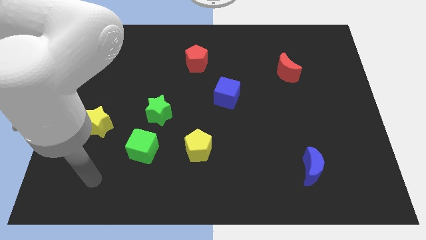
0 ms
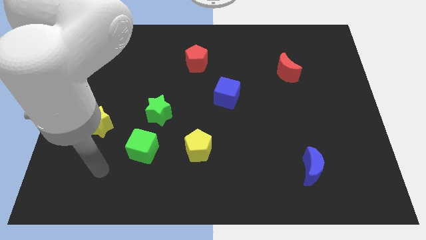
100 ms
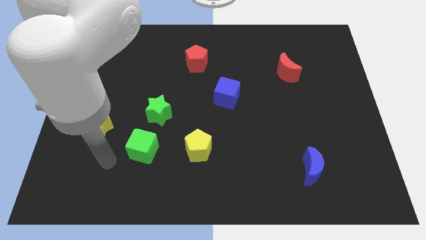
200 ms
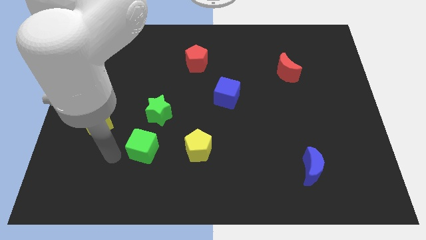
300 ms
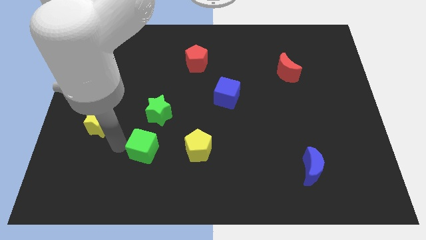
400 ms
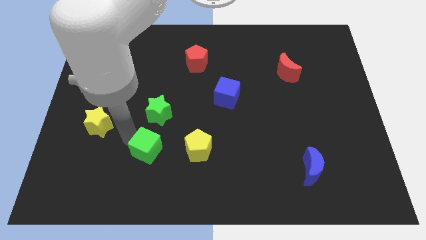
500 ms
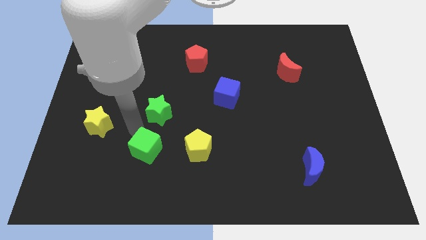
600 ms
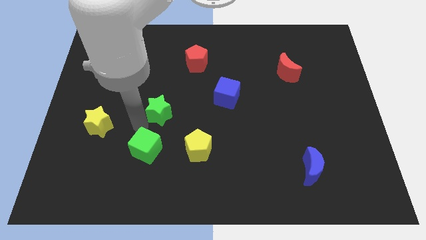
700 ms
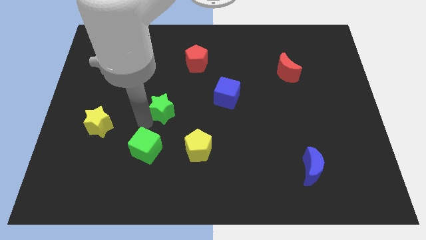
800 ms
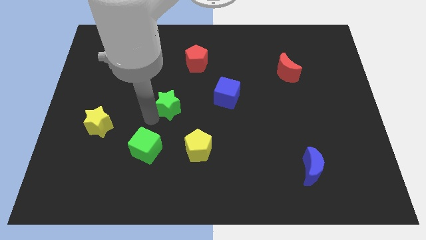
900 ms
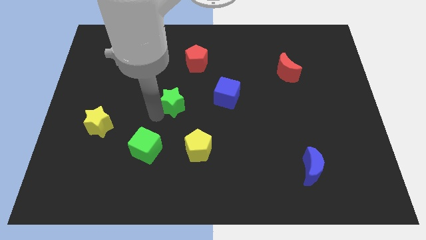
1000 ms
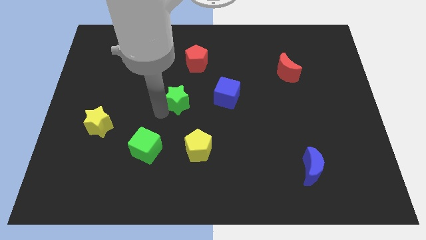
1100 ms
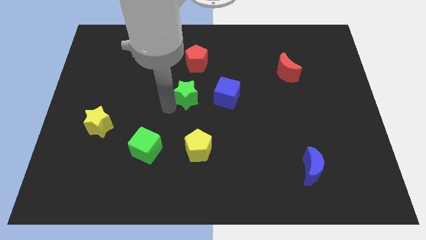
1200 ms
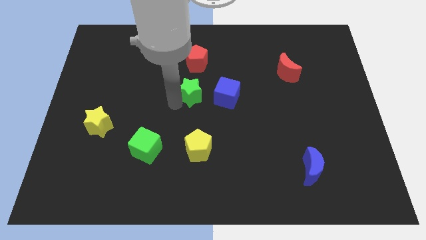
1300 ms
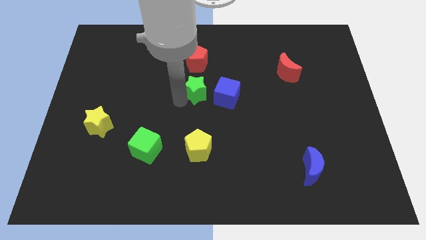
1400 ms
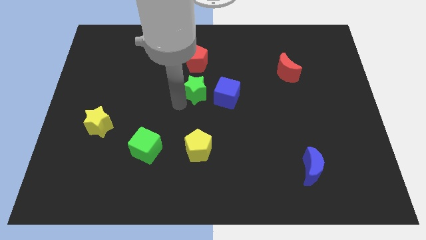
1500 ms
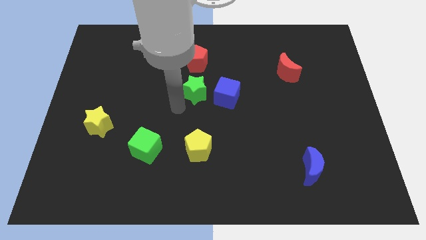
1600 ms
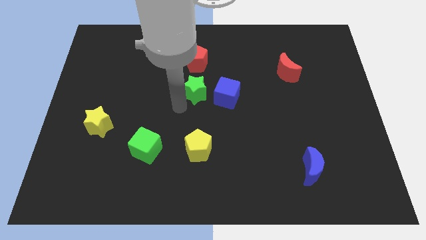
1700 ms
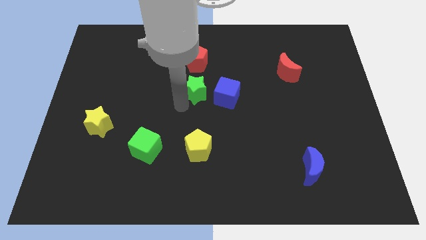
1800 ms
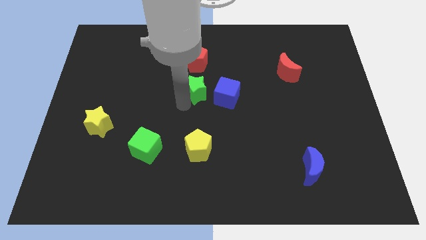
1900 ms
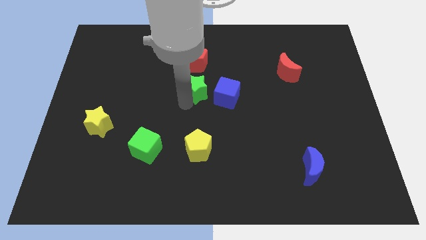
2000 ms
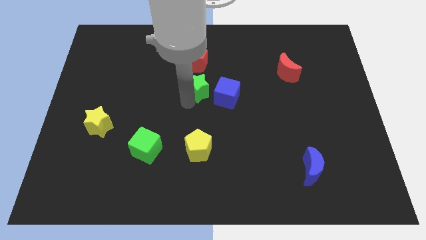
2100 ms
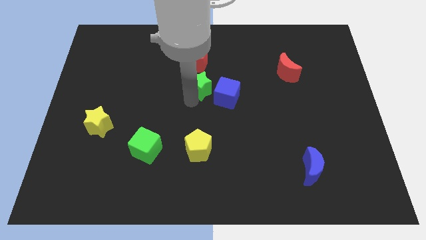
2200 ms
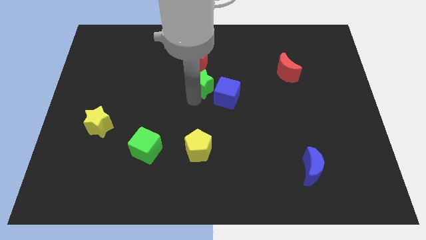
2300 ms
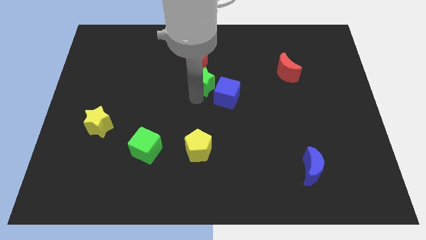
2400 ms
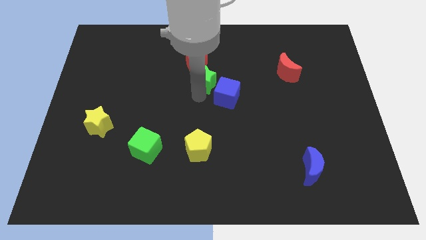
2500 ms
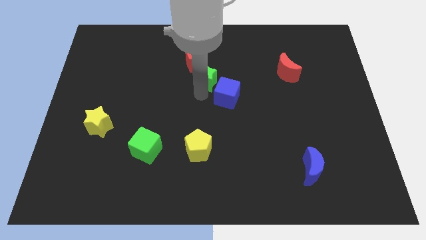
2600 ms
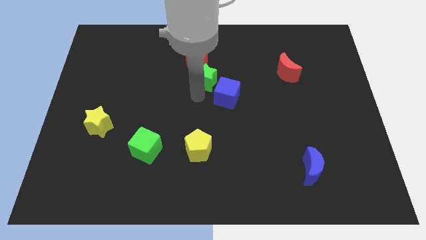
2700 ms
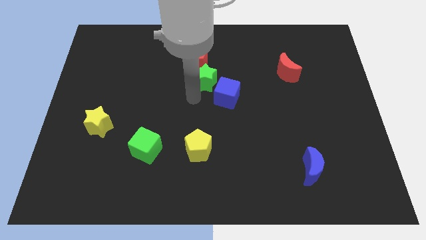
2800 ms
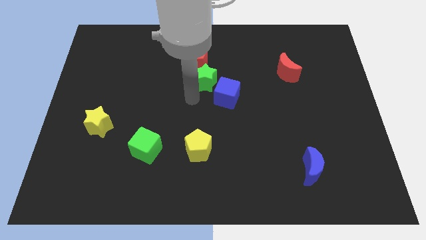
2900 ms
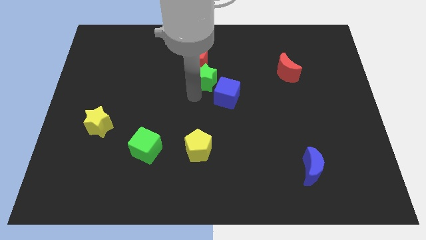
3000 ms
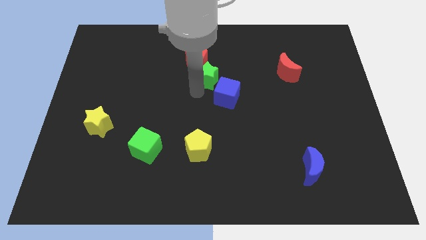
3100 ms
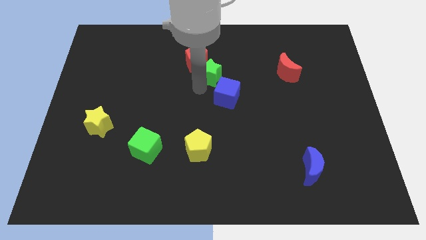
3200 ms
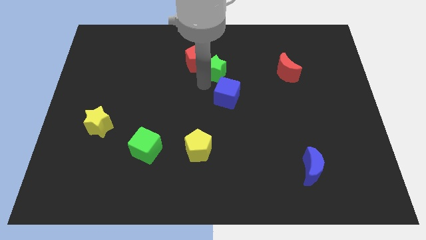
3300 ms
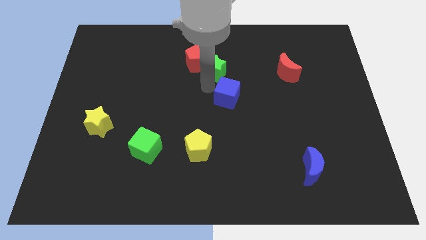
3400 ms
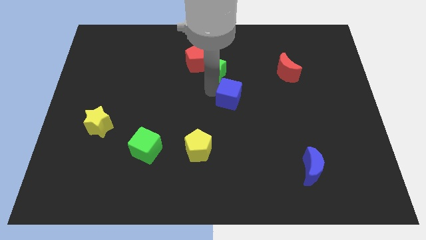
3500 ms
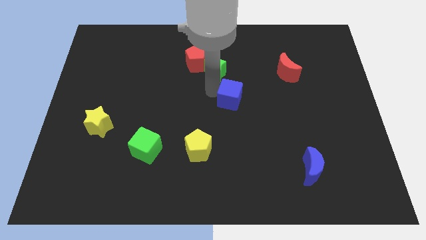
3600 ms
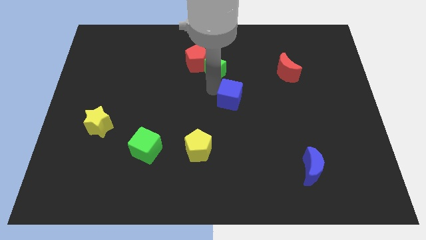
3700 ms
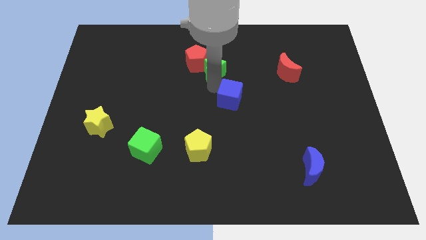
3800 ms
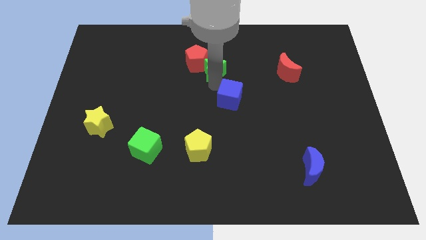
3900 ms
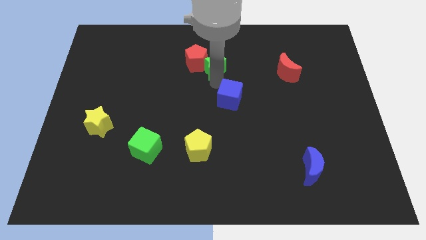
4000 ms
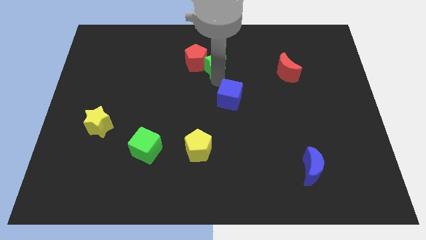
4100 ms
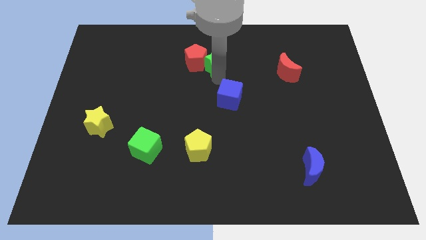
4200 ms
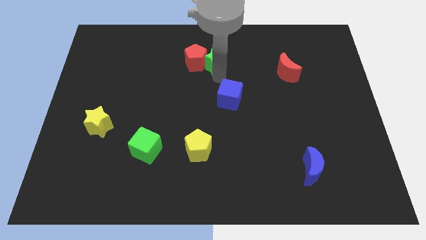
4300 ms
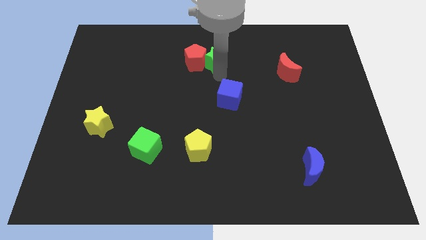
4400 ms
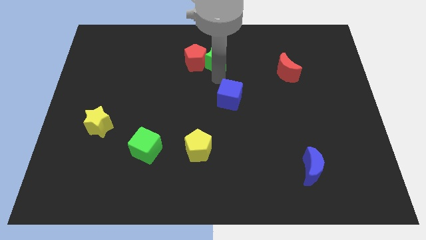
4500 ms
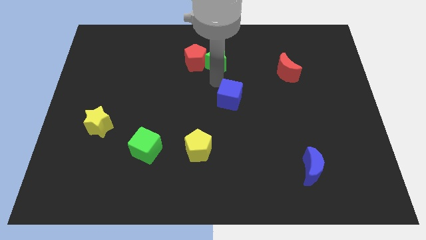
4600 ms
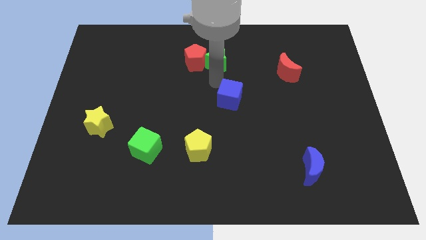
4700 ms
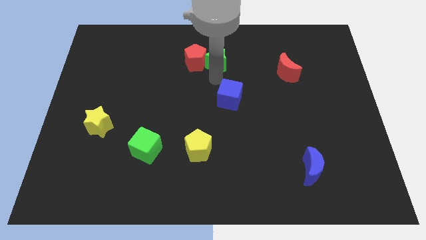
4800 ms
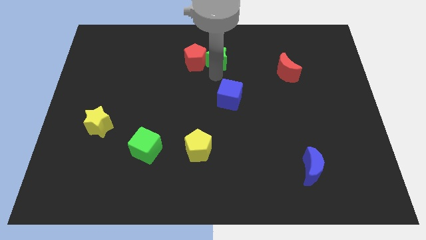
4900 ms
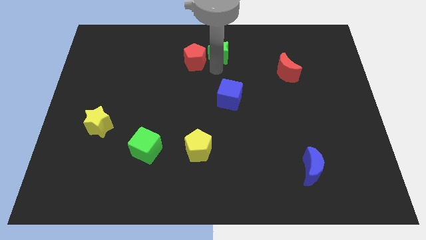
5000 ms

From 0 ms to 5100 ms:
push the green star to the top side

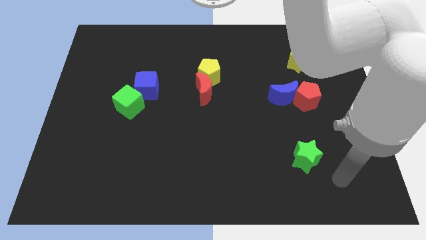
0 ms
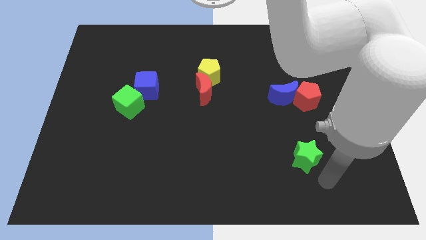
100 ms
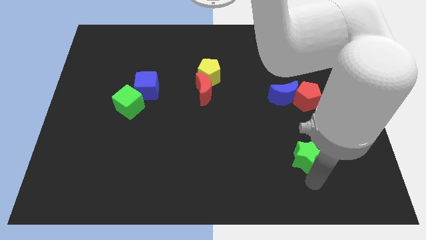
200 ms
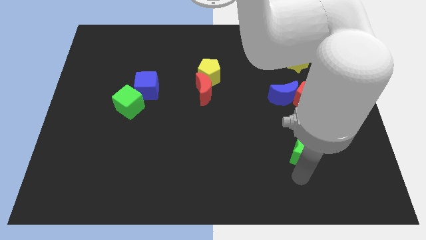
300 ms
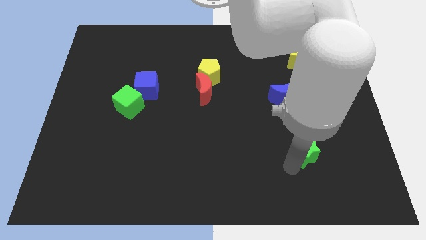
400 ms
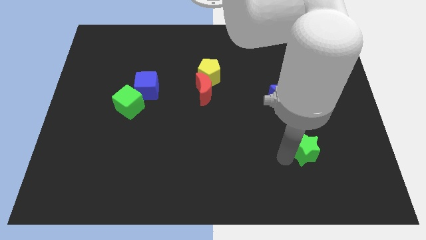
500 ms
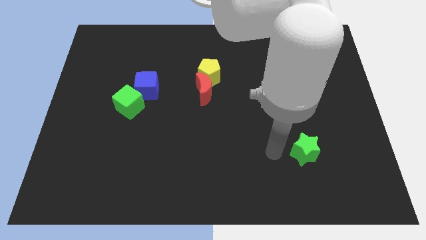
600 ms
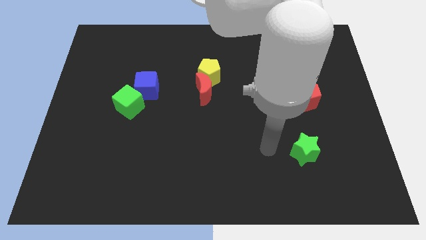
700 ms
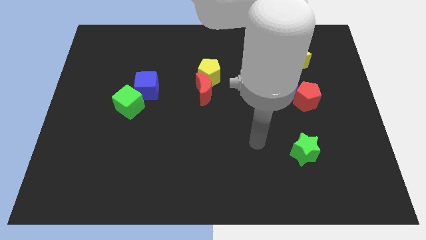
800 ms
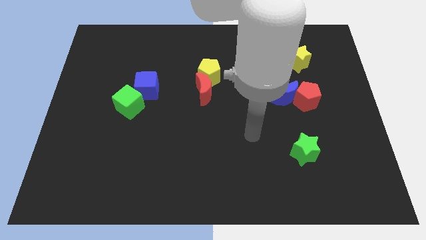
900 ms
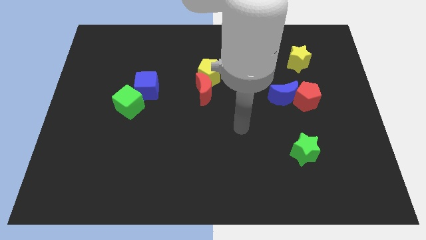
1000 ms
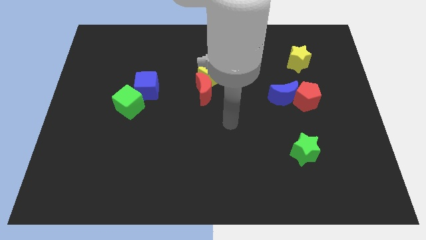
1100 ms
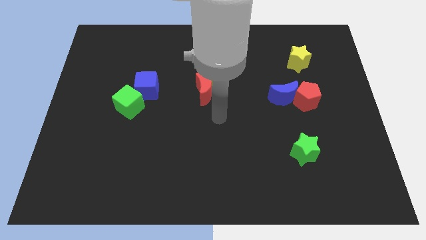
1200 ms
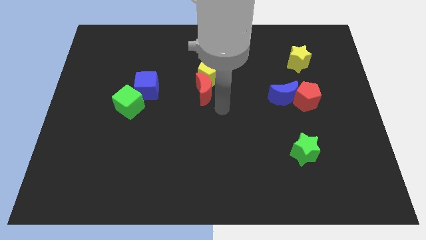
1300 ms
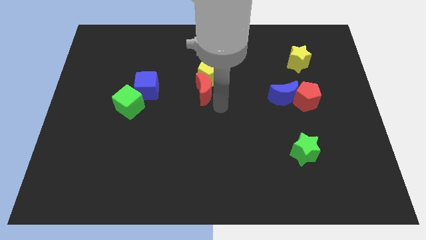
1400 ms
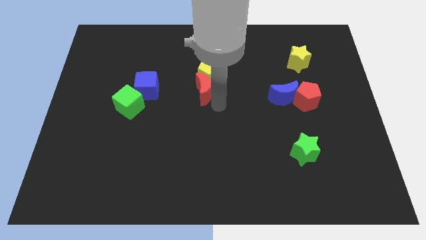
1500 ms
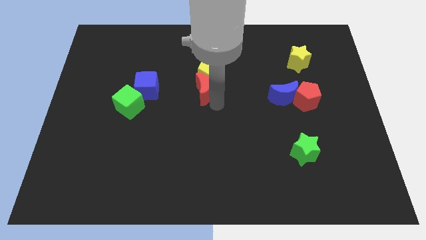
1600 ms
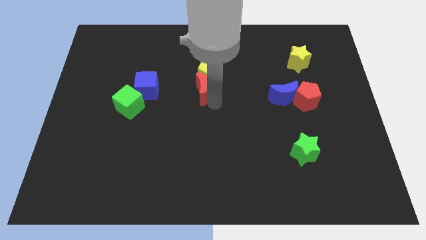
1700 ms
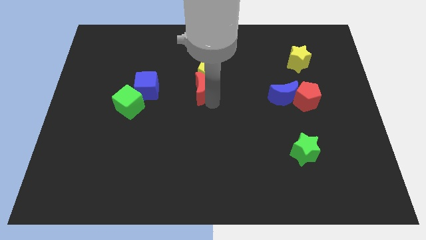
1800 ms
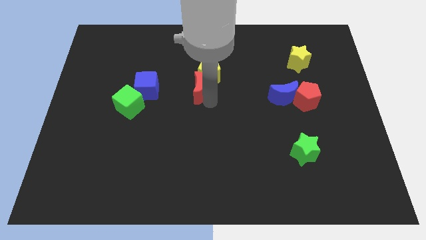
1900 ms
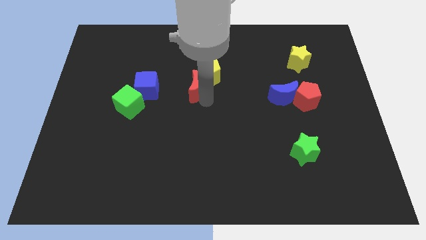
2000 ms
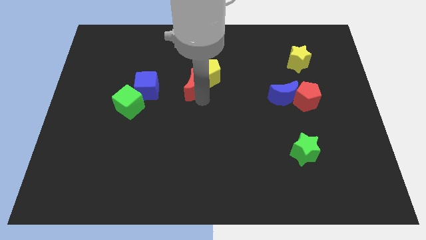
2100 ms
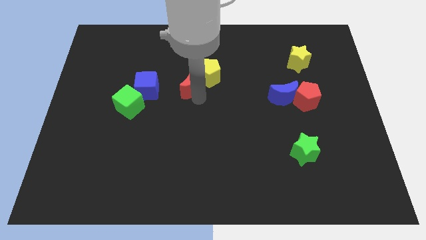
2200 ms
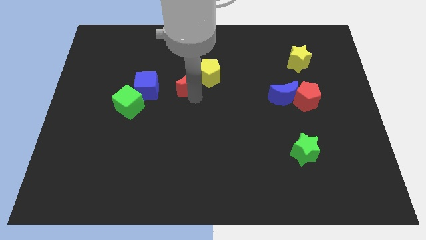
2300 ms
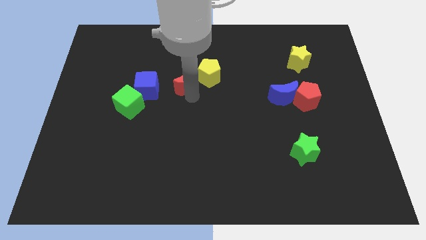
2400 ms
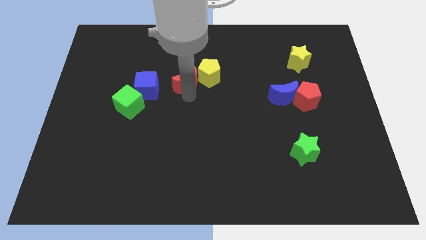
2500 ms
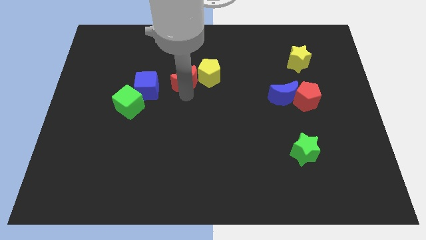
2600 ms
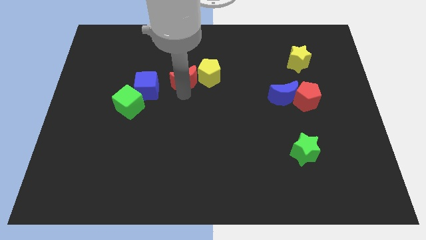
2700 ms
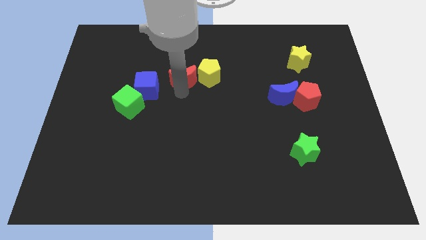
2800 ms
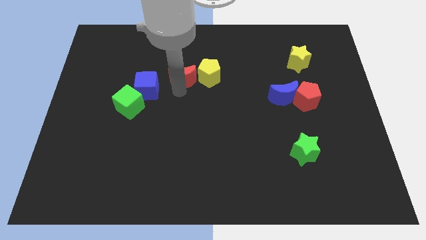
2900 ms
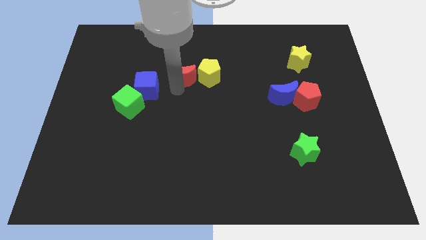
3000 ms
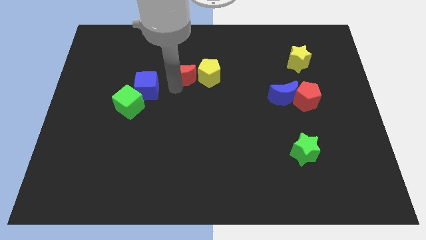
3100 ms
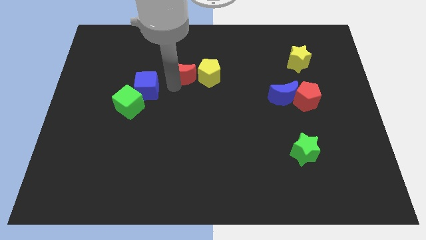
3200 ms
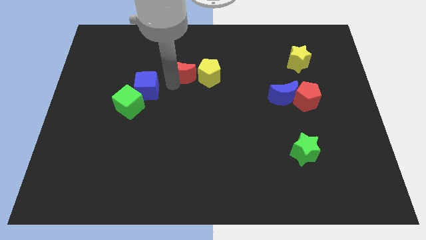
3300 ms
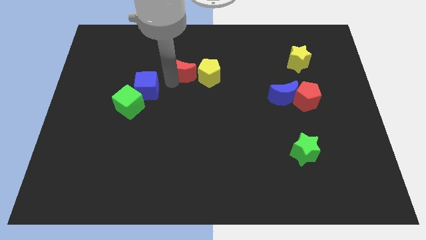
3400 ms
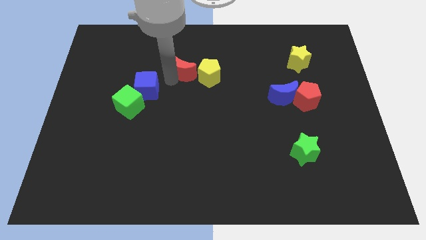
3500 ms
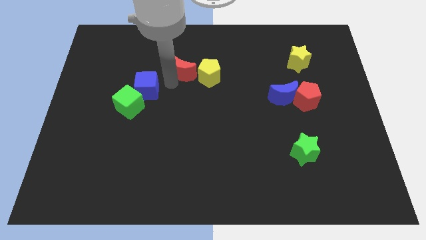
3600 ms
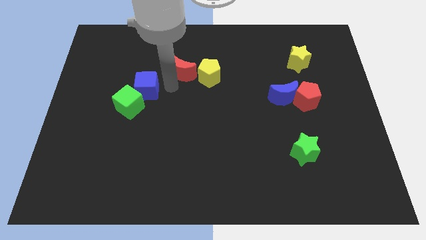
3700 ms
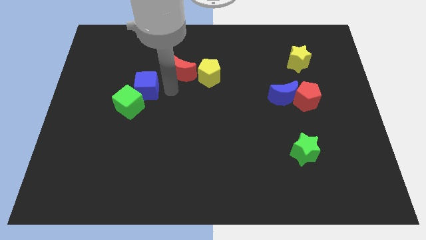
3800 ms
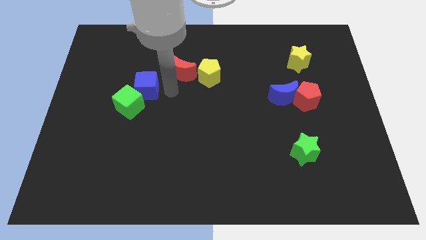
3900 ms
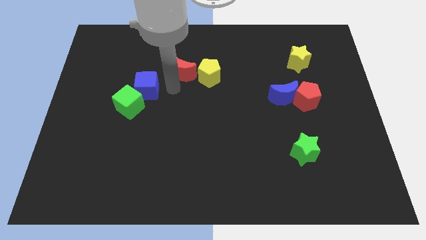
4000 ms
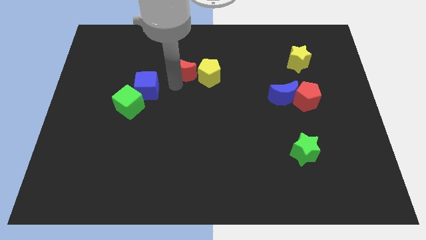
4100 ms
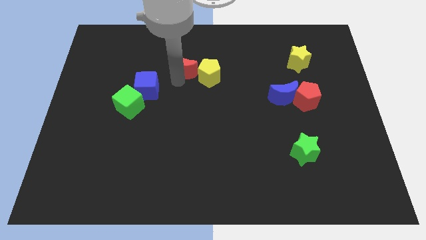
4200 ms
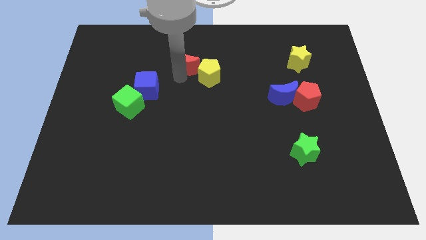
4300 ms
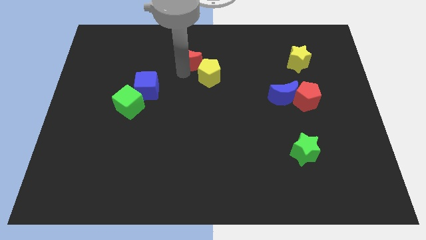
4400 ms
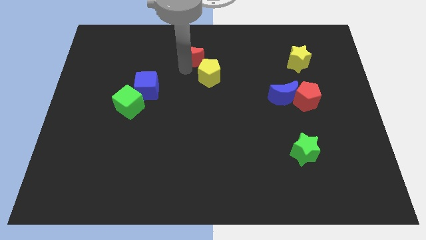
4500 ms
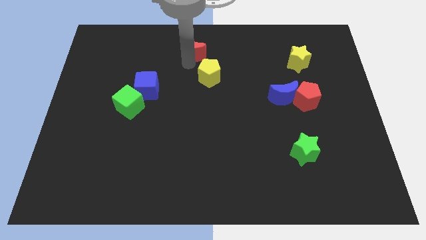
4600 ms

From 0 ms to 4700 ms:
push the red moon to the towards your base
